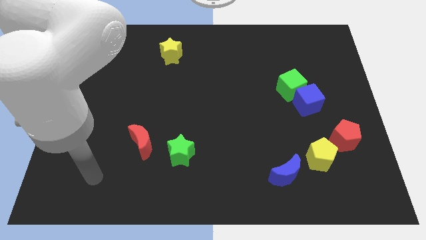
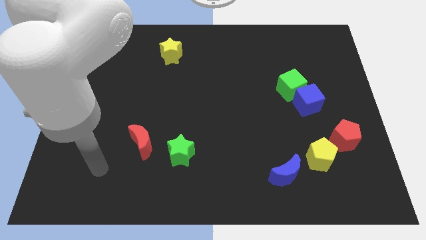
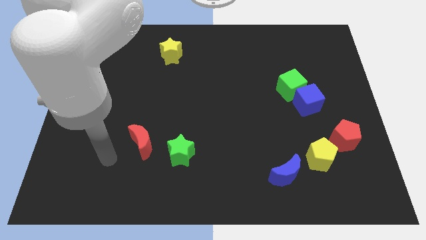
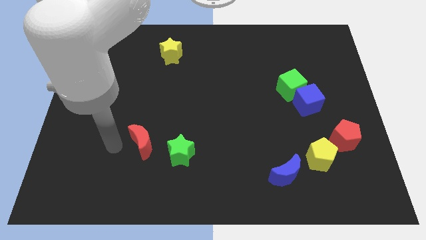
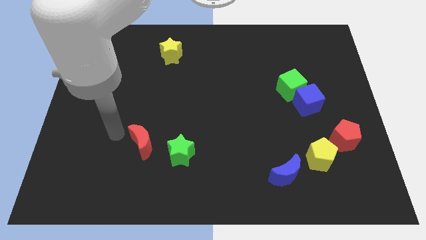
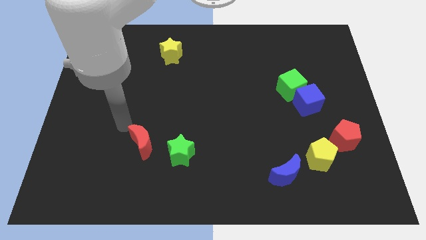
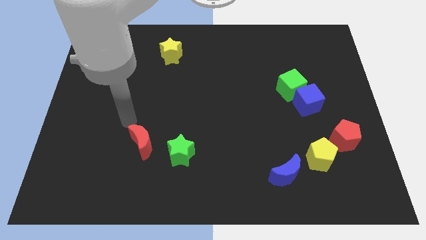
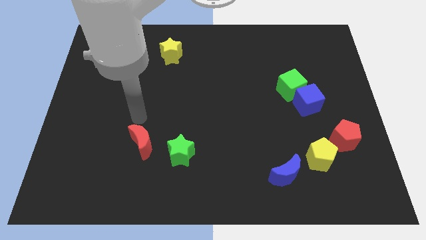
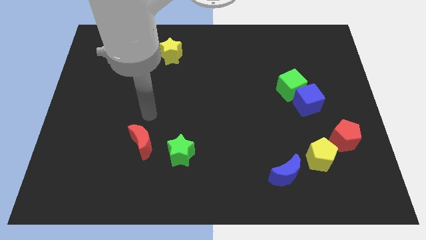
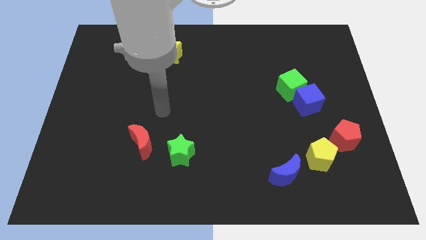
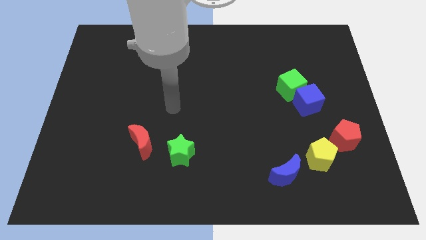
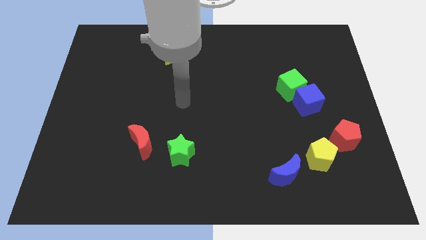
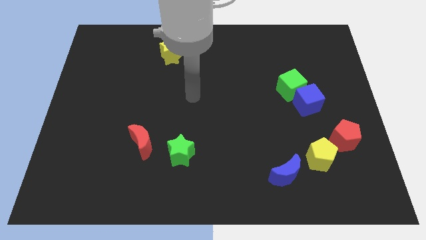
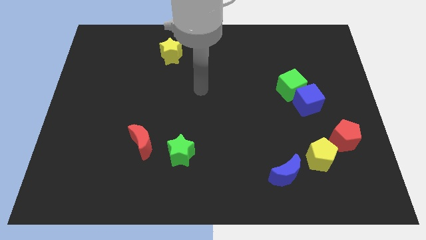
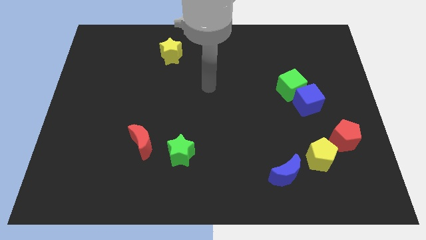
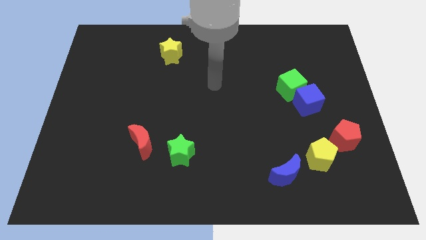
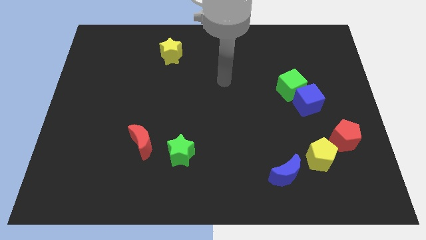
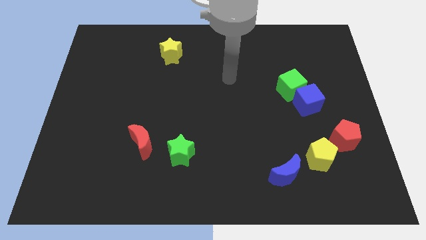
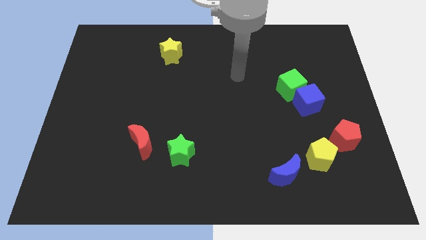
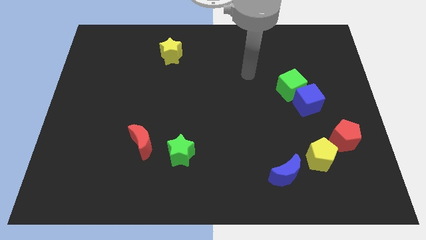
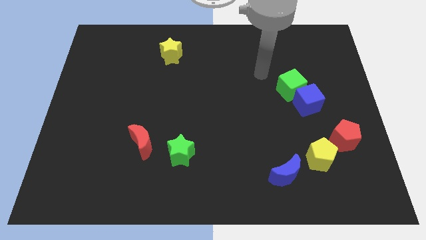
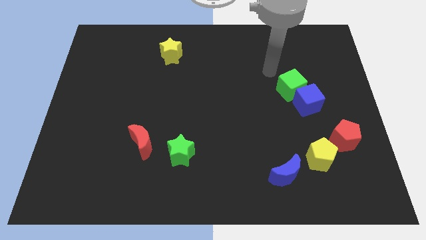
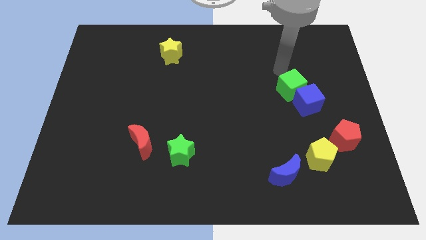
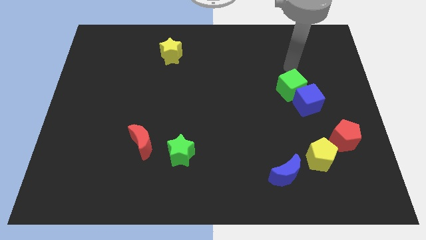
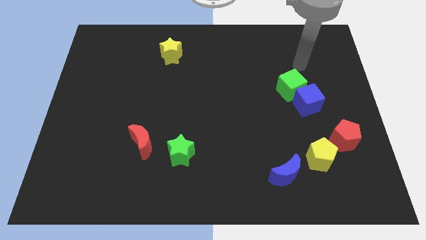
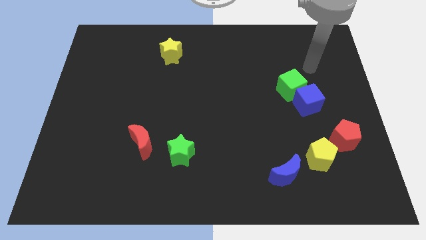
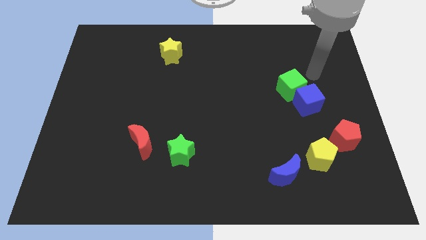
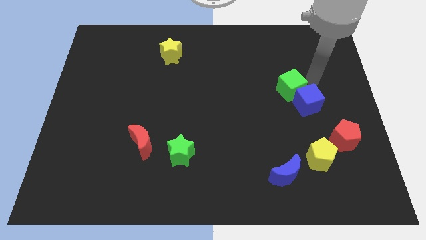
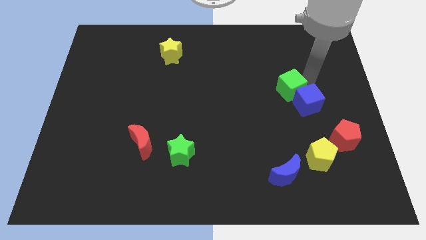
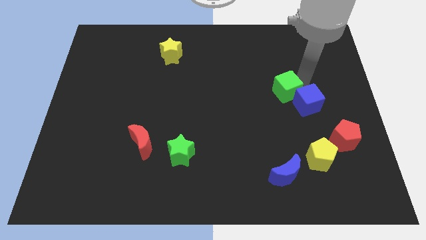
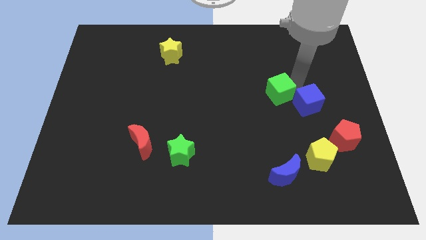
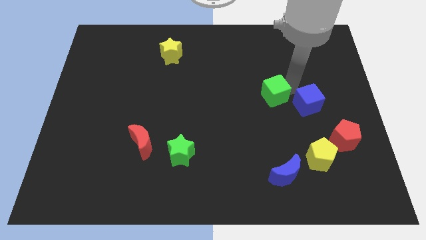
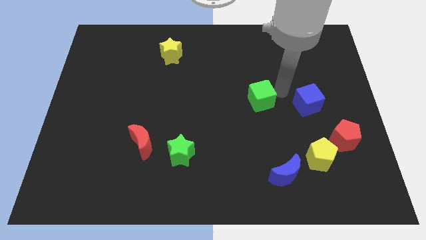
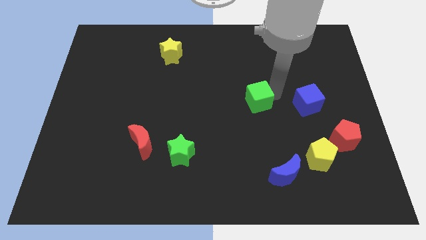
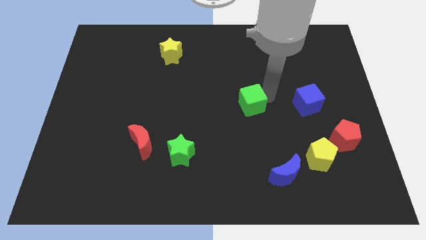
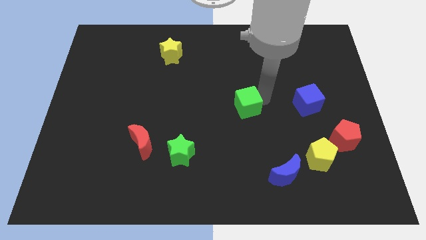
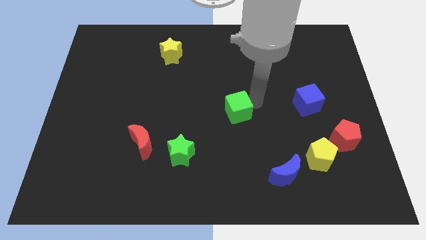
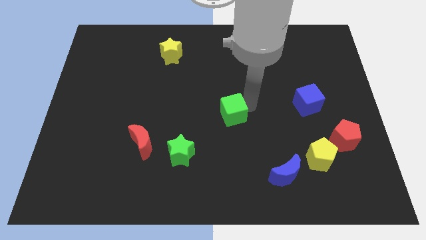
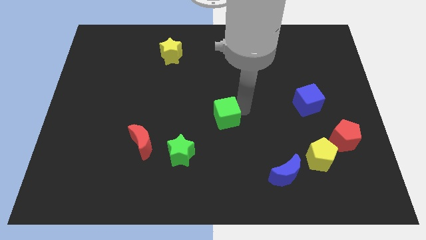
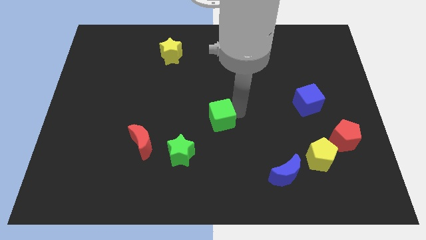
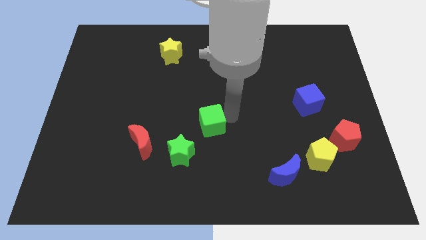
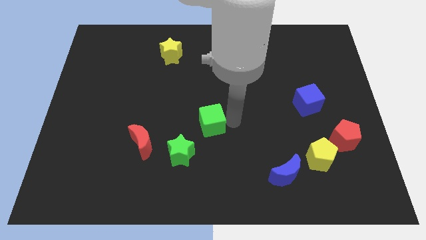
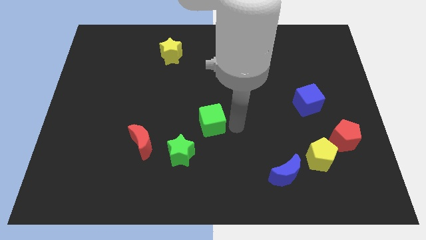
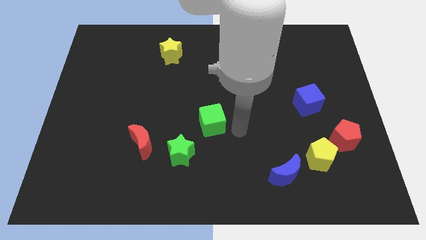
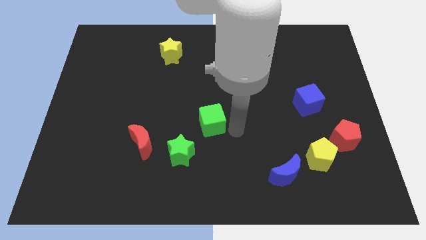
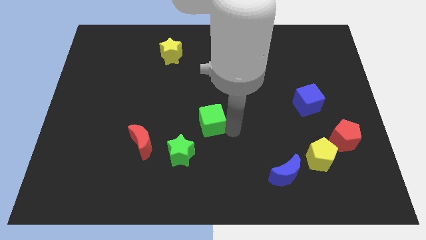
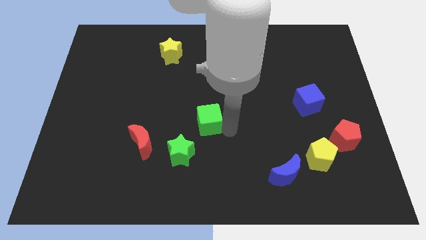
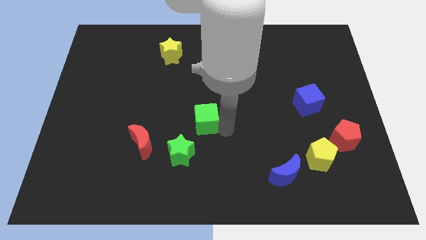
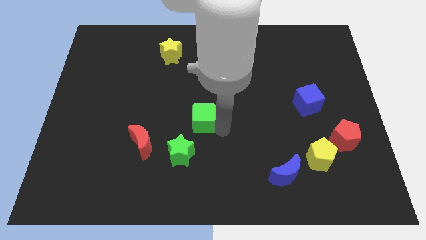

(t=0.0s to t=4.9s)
push the green cube to the top of the green star

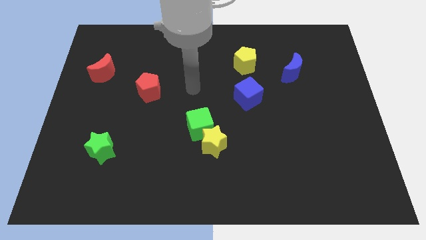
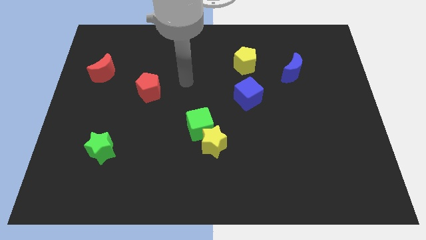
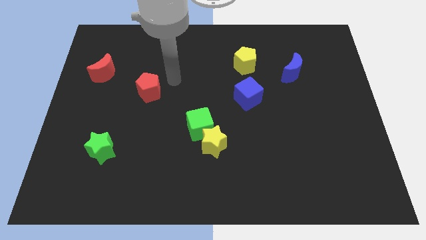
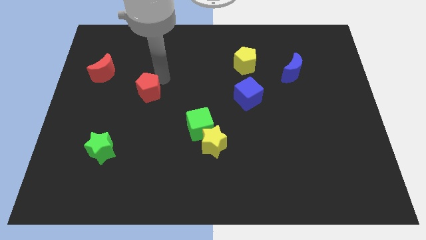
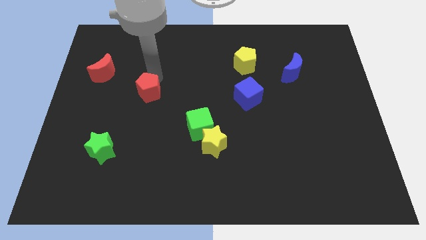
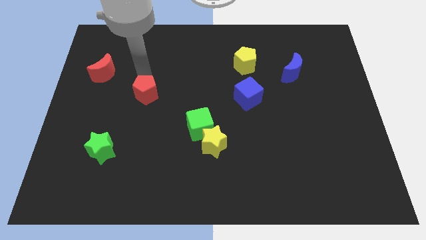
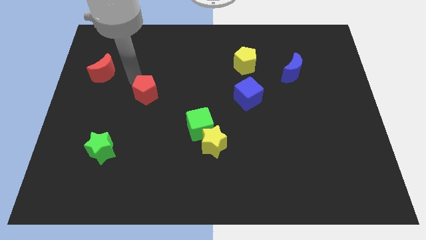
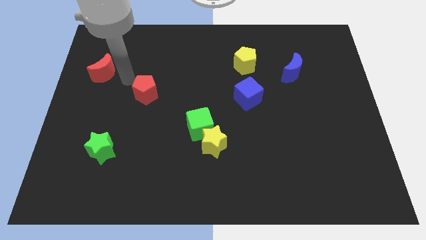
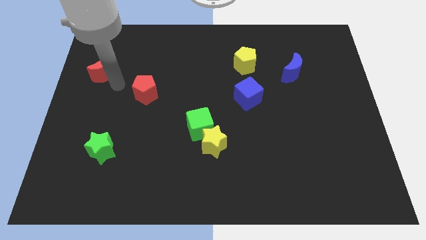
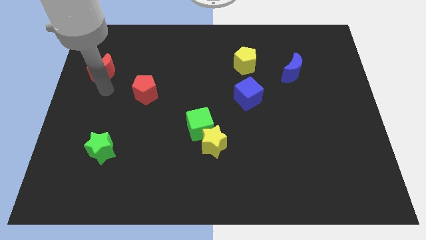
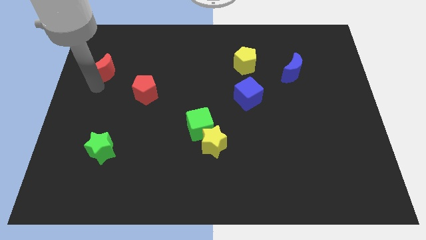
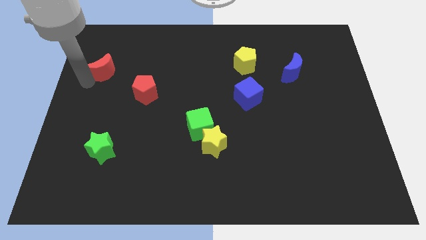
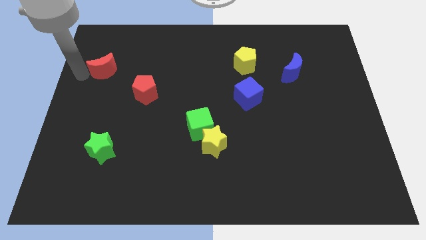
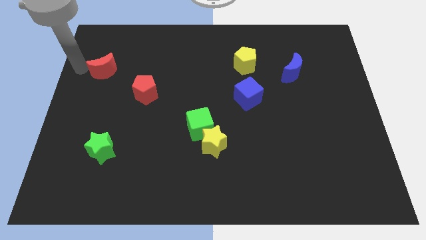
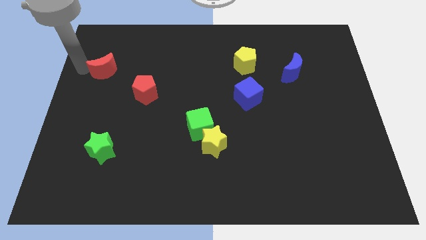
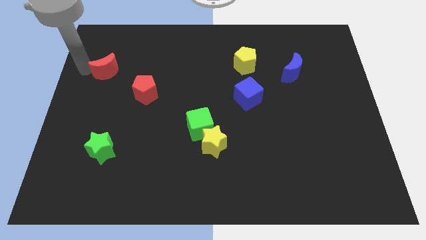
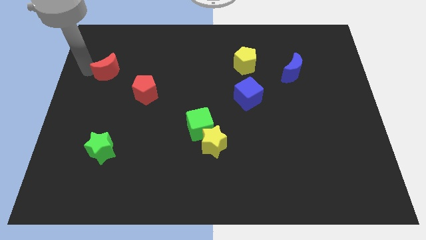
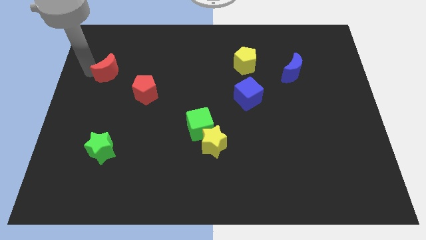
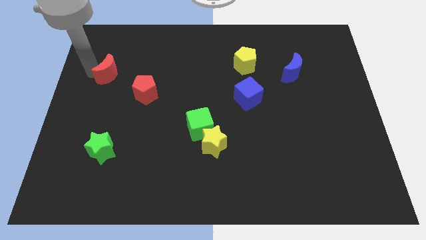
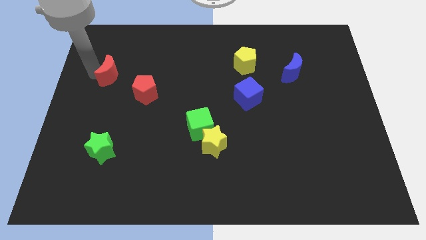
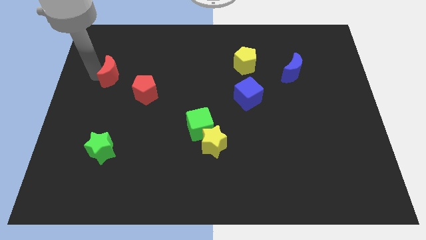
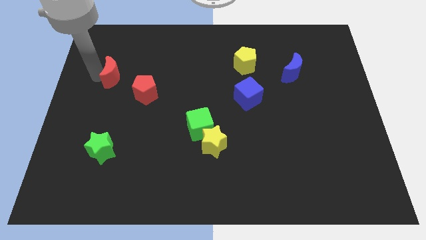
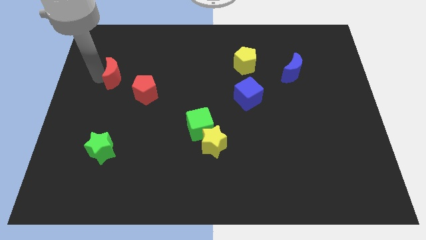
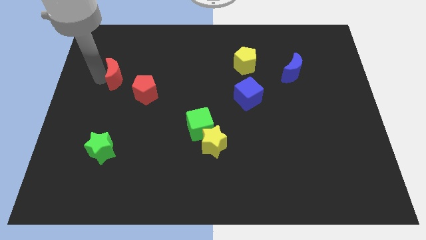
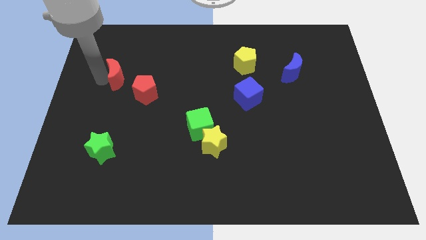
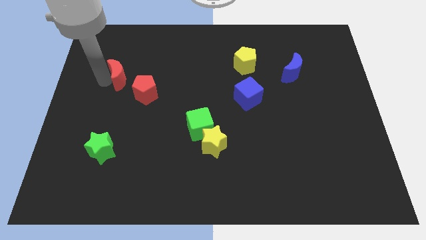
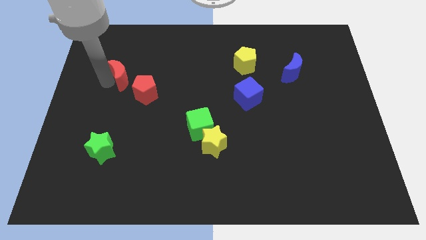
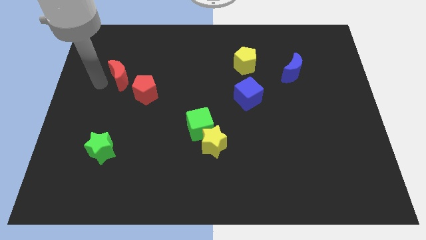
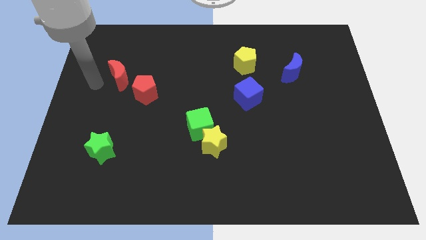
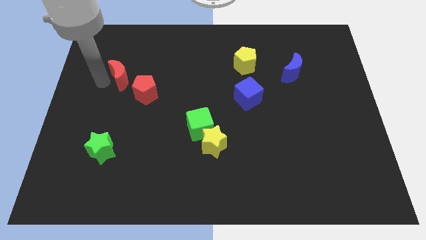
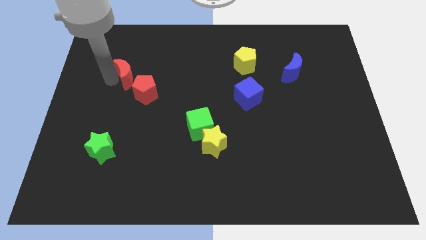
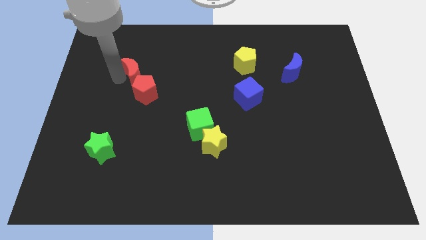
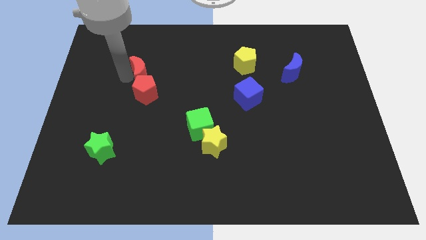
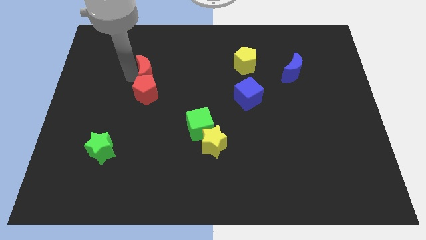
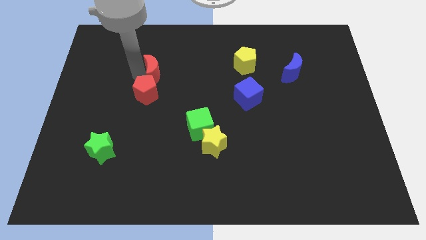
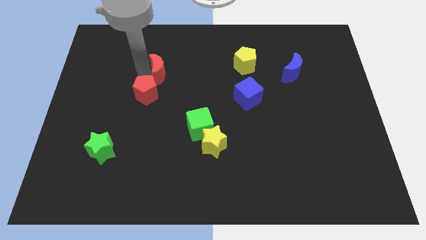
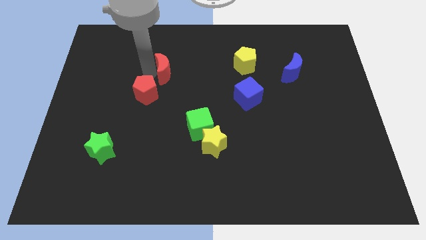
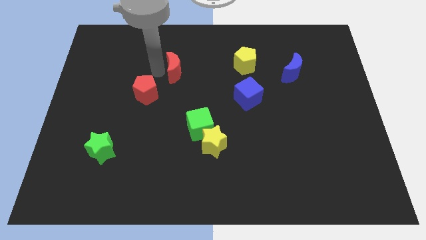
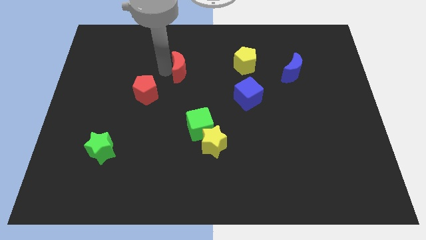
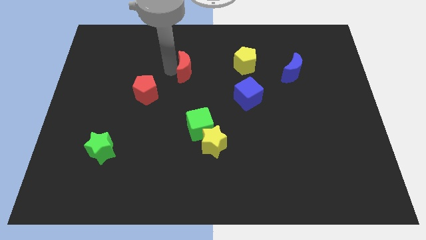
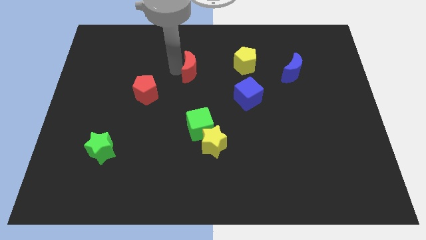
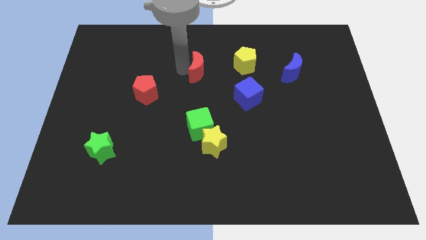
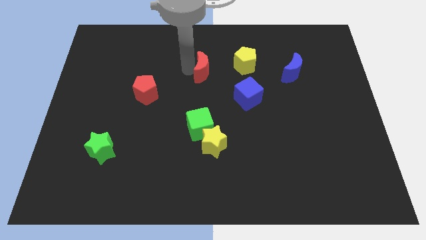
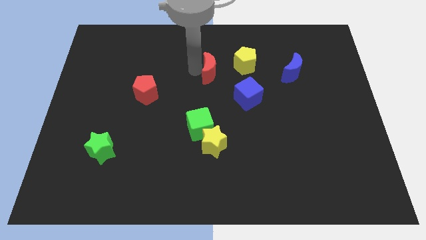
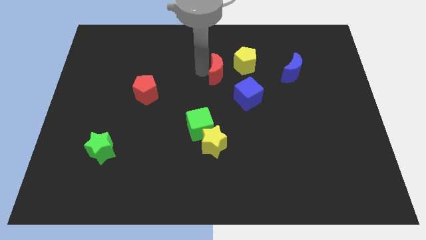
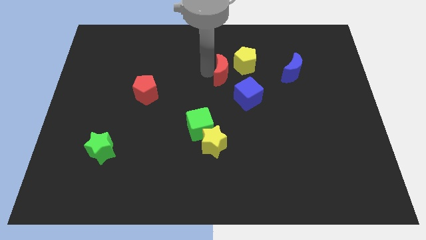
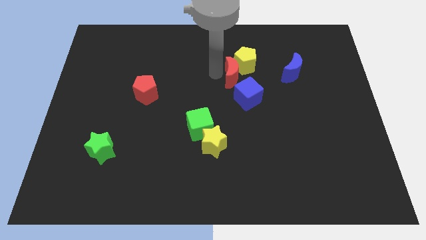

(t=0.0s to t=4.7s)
move the red moon to the left of the blue moon
